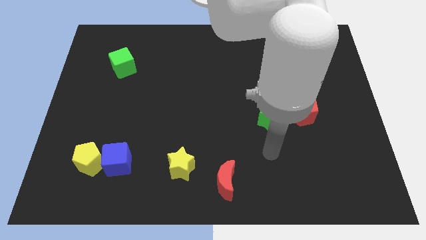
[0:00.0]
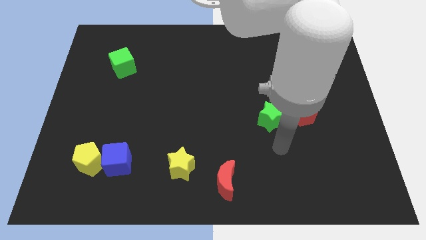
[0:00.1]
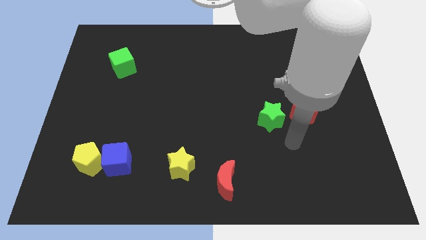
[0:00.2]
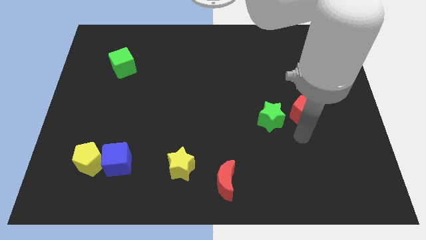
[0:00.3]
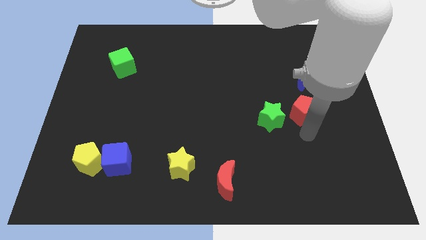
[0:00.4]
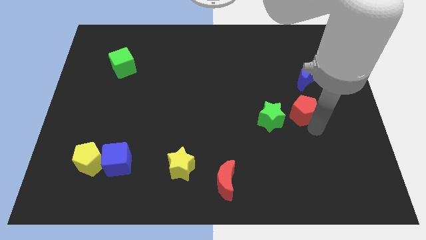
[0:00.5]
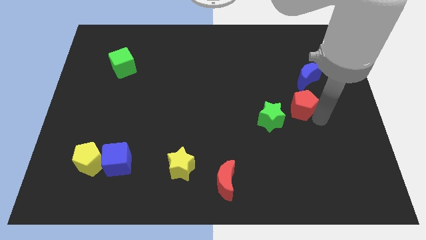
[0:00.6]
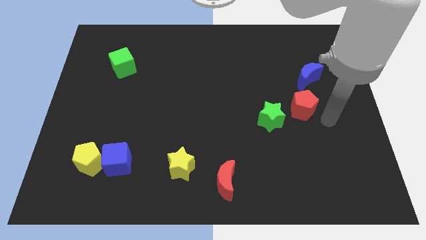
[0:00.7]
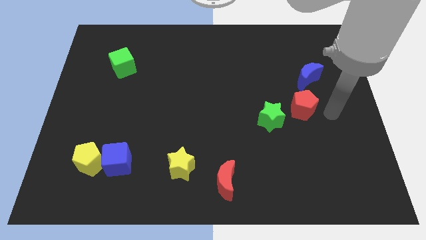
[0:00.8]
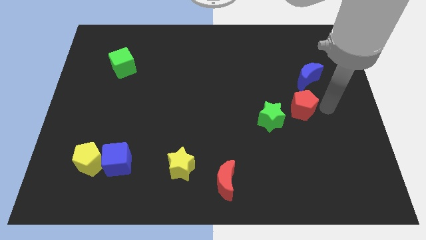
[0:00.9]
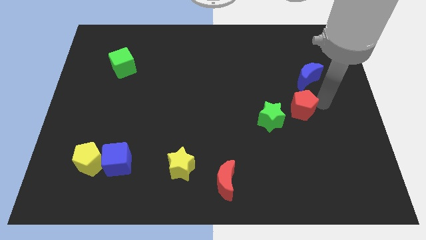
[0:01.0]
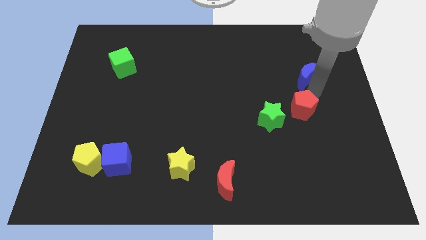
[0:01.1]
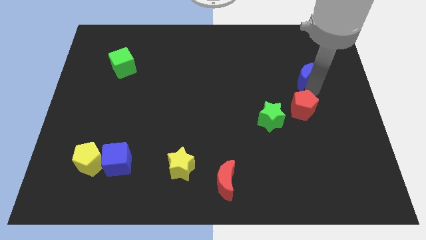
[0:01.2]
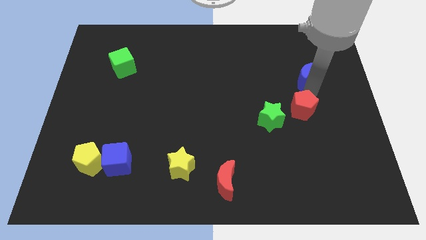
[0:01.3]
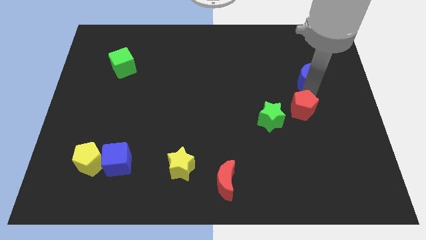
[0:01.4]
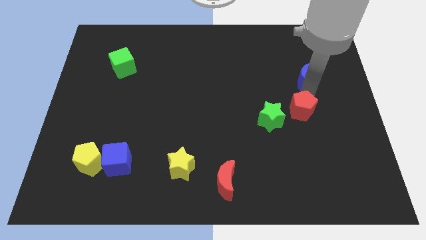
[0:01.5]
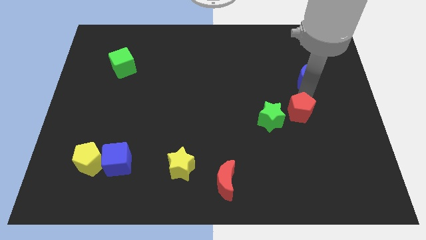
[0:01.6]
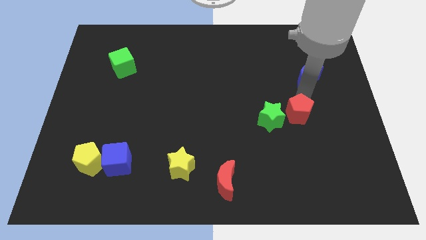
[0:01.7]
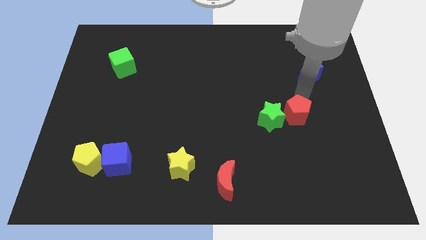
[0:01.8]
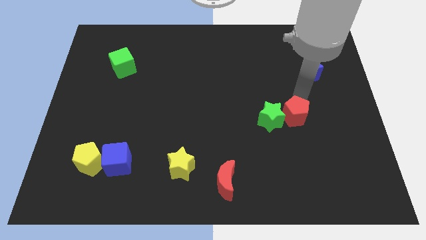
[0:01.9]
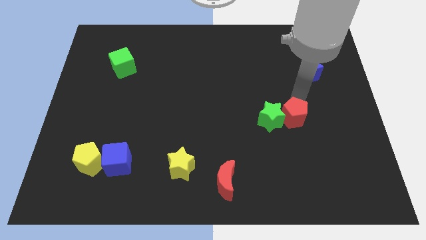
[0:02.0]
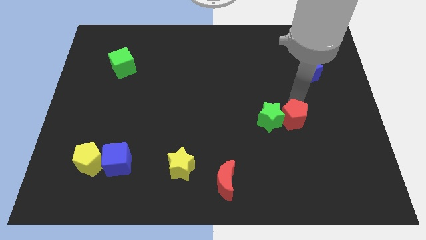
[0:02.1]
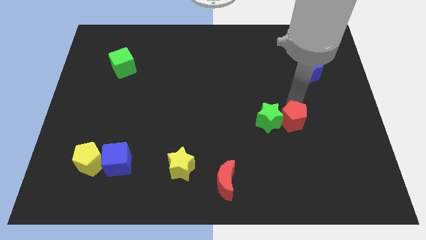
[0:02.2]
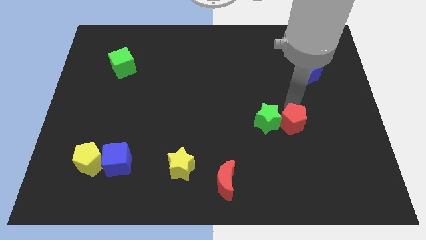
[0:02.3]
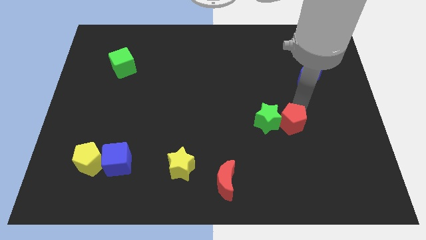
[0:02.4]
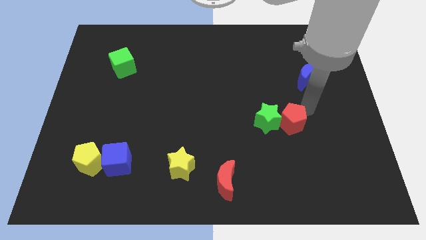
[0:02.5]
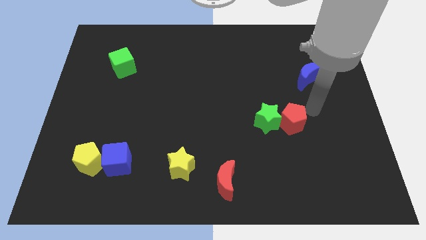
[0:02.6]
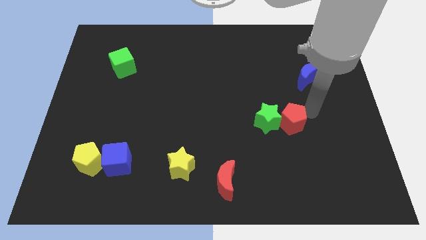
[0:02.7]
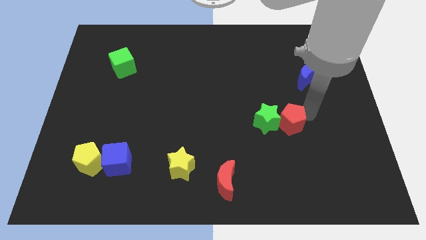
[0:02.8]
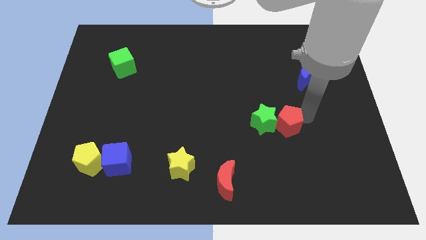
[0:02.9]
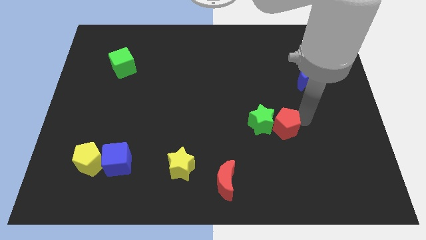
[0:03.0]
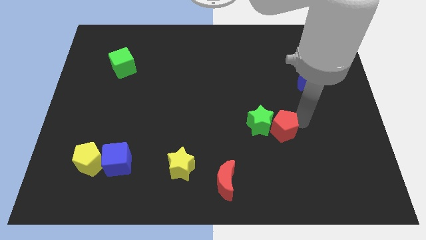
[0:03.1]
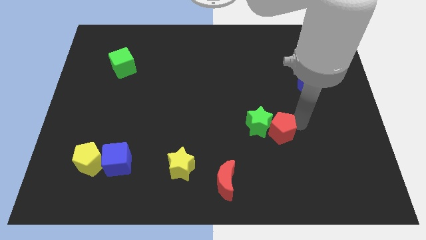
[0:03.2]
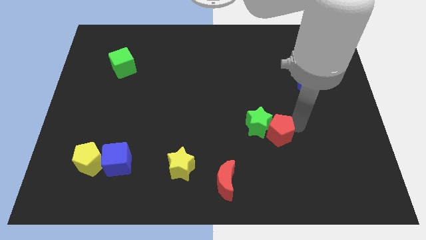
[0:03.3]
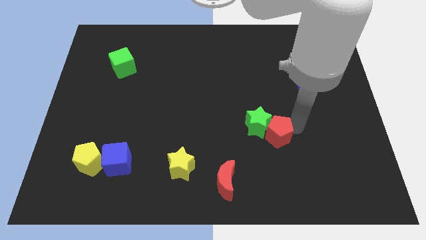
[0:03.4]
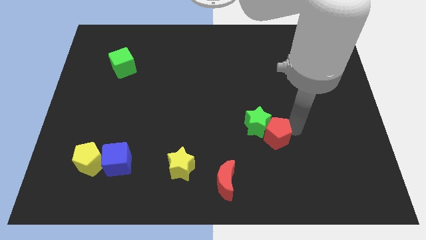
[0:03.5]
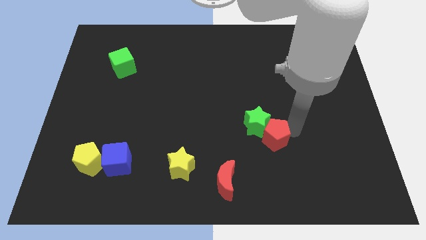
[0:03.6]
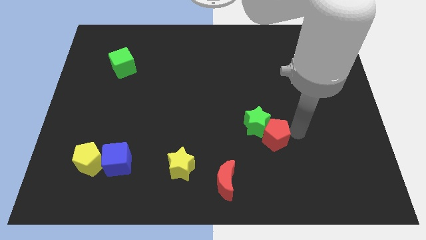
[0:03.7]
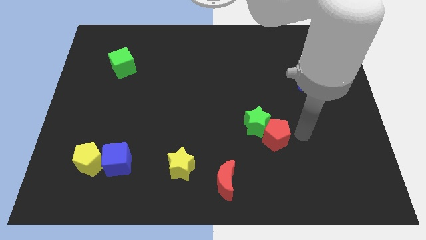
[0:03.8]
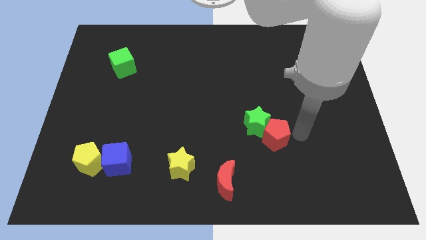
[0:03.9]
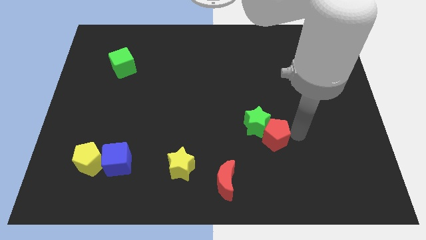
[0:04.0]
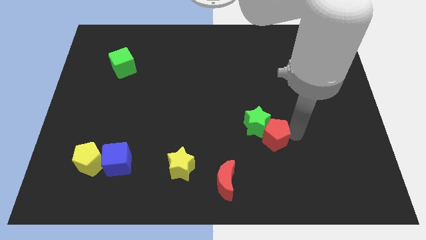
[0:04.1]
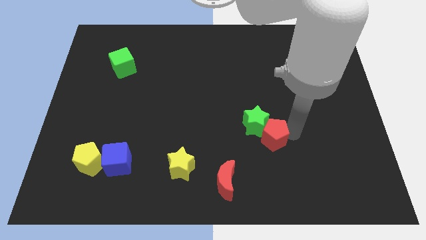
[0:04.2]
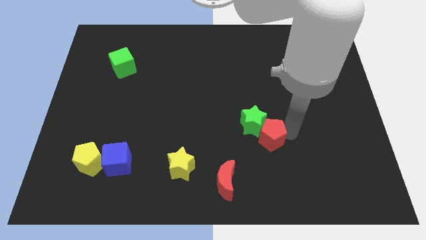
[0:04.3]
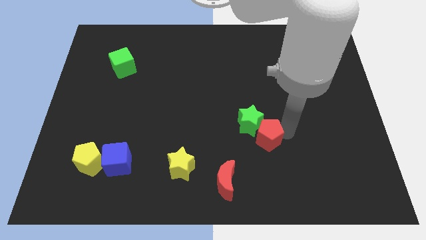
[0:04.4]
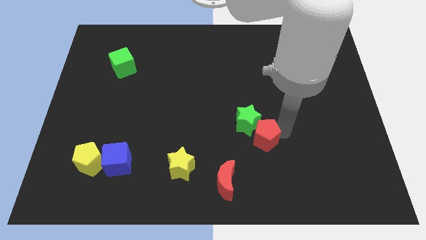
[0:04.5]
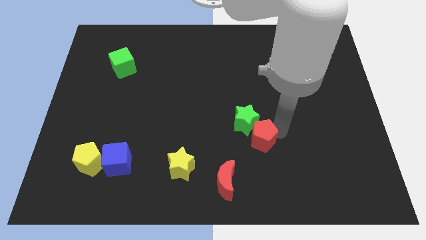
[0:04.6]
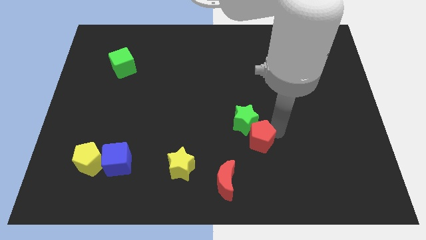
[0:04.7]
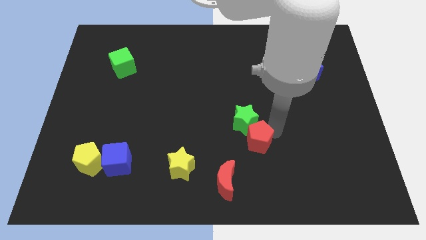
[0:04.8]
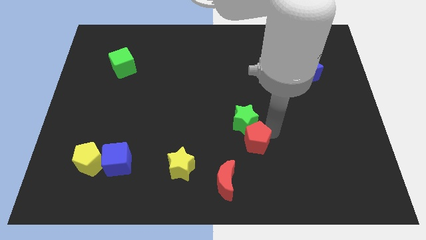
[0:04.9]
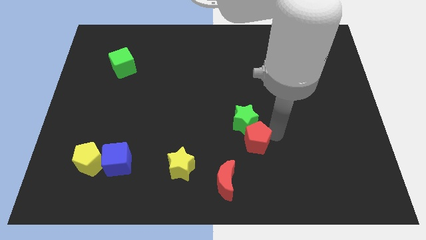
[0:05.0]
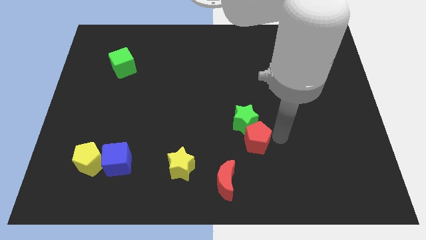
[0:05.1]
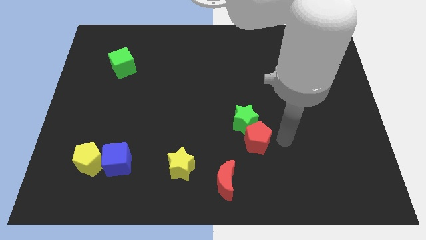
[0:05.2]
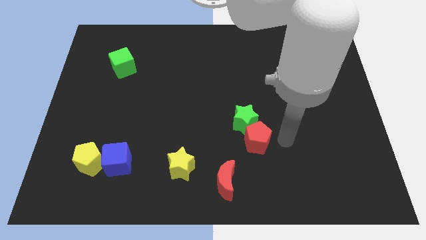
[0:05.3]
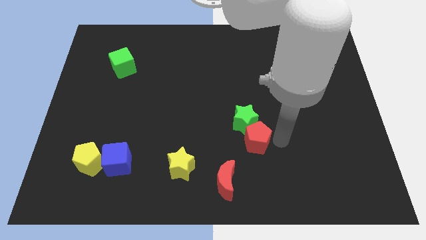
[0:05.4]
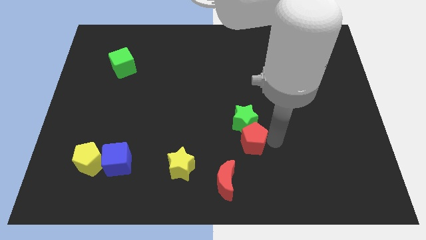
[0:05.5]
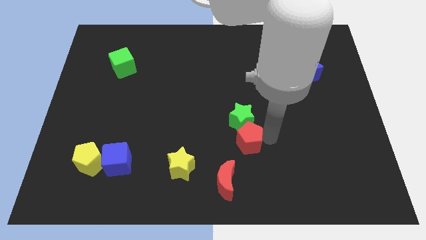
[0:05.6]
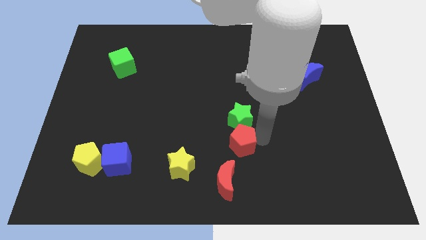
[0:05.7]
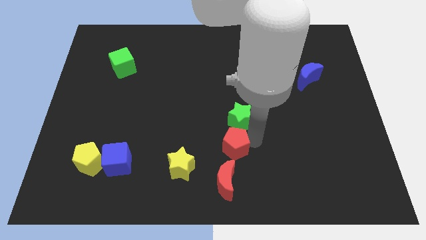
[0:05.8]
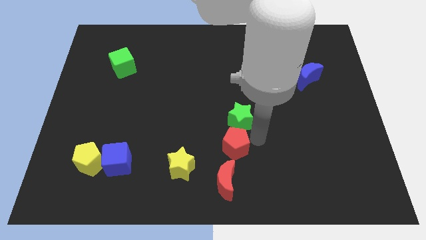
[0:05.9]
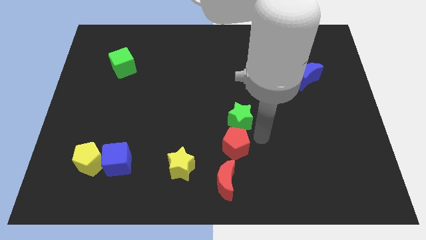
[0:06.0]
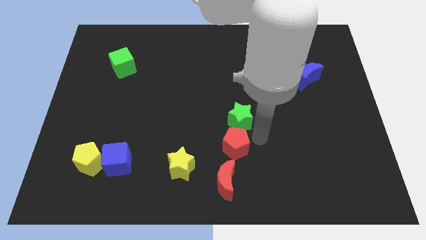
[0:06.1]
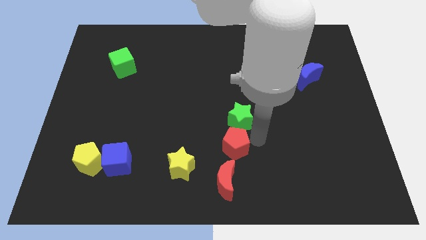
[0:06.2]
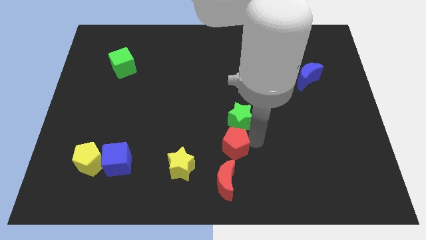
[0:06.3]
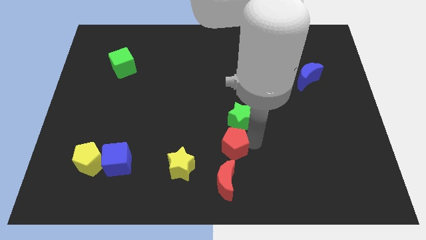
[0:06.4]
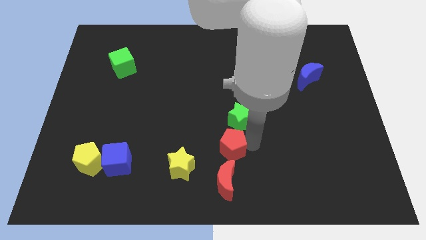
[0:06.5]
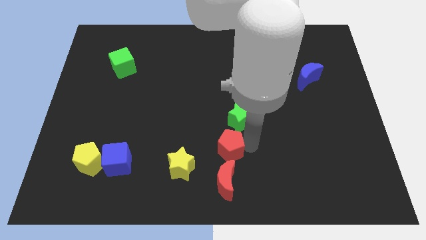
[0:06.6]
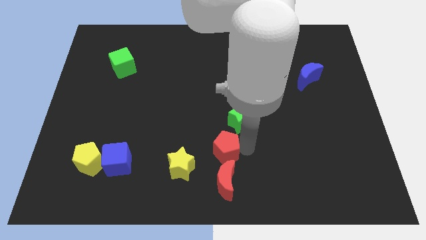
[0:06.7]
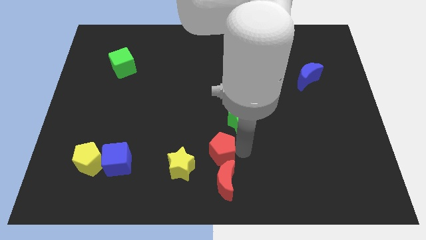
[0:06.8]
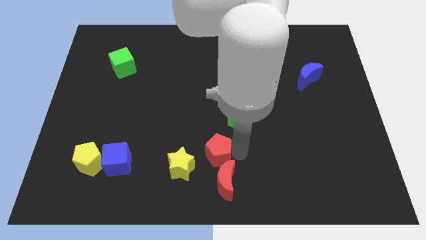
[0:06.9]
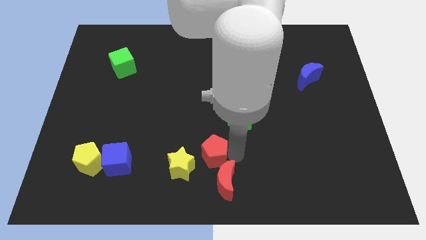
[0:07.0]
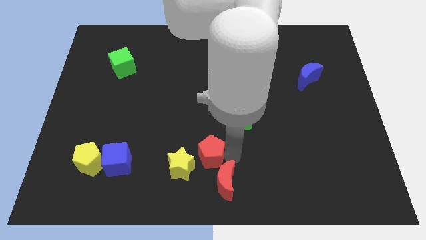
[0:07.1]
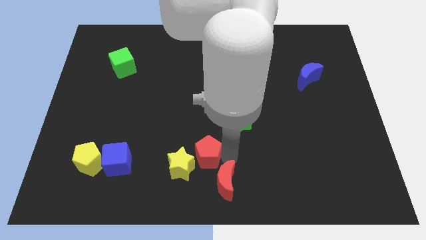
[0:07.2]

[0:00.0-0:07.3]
move the red pentagon next to the yellow star
